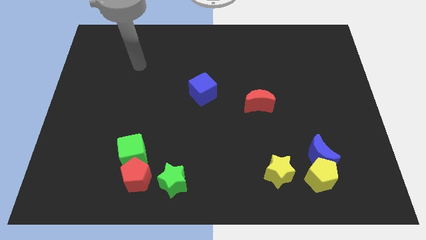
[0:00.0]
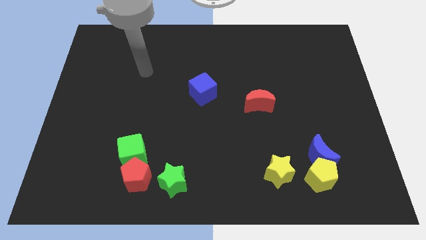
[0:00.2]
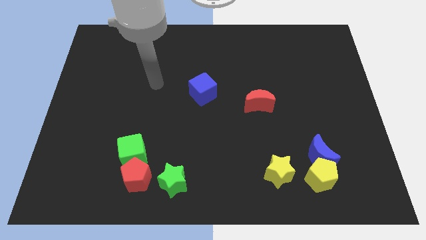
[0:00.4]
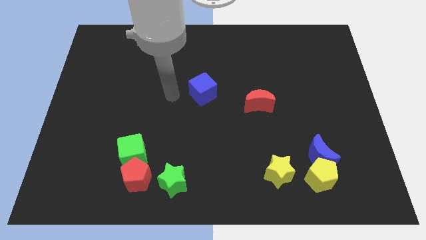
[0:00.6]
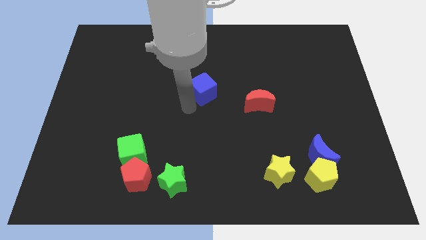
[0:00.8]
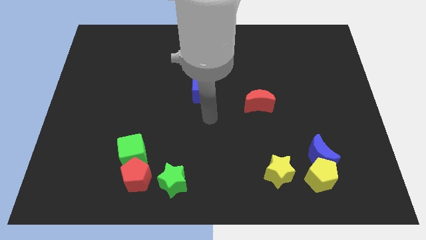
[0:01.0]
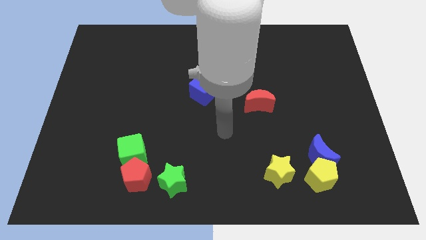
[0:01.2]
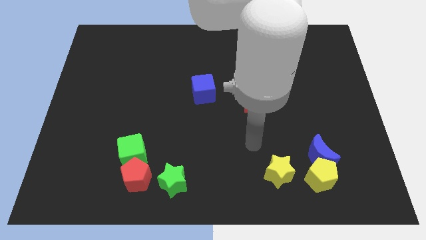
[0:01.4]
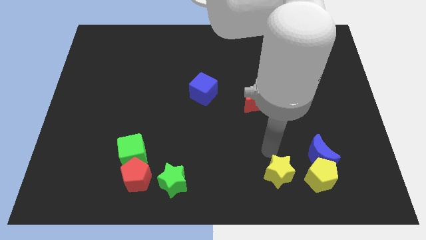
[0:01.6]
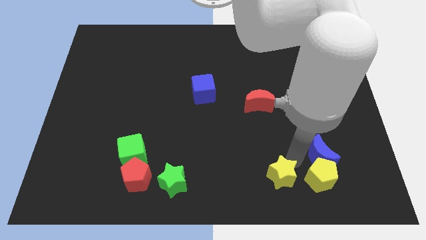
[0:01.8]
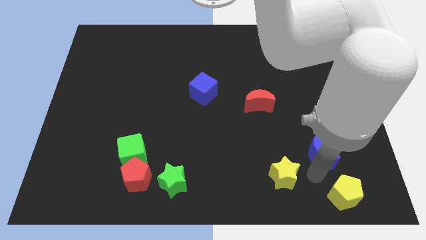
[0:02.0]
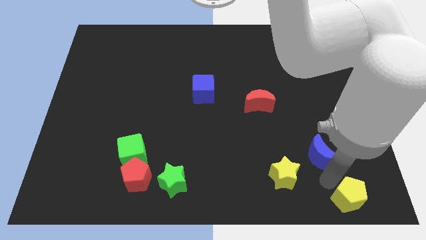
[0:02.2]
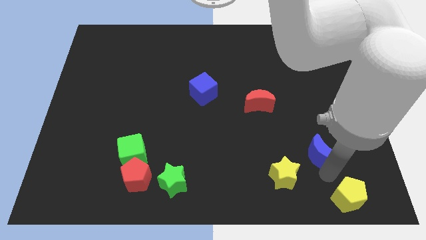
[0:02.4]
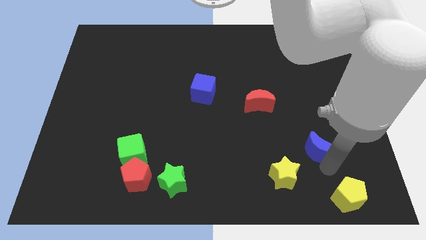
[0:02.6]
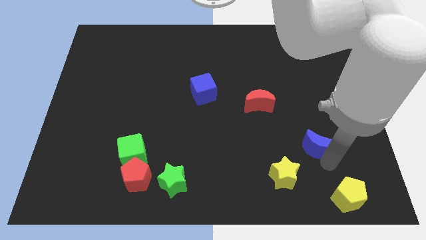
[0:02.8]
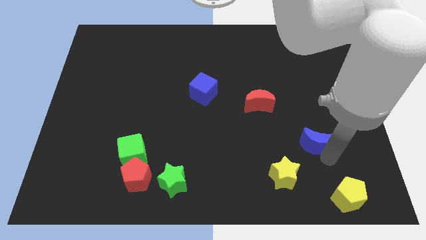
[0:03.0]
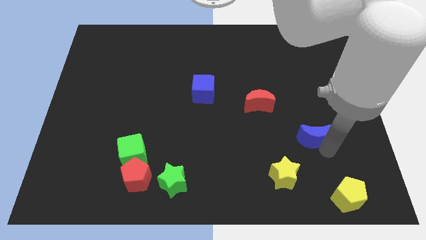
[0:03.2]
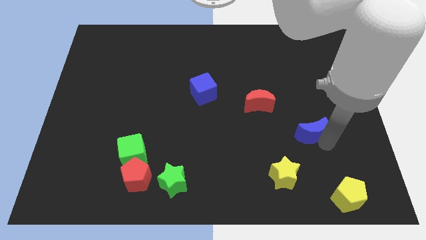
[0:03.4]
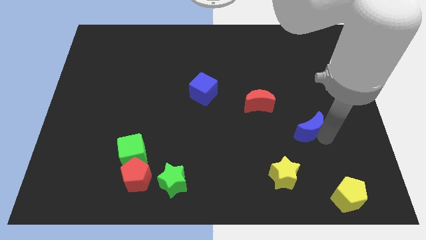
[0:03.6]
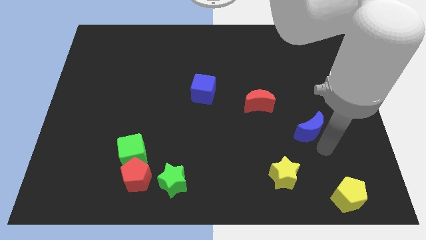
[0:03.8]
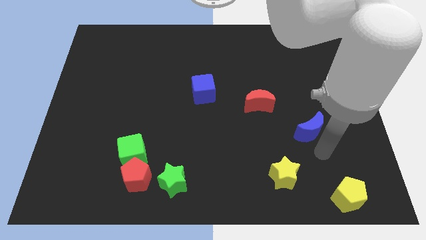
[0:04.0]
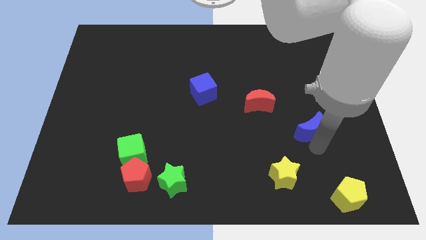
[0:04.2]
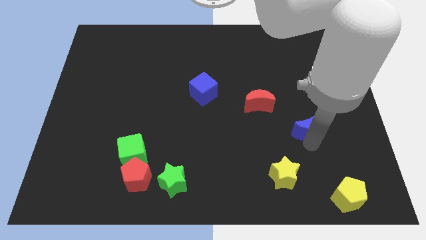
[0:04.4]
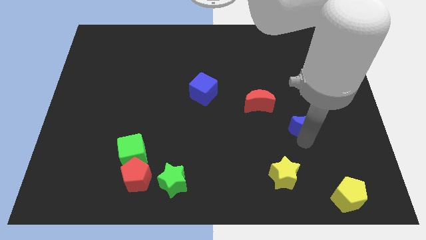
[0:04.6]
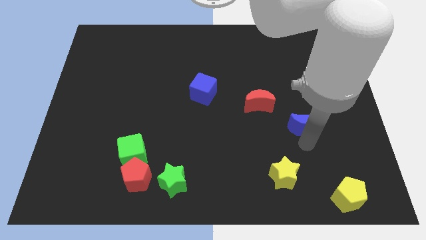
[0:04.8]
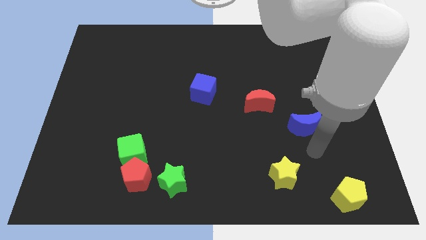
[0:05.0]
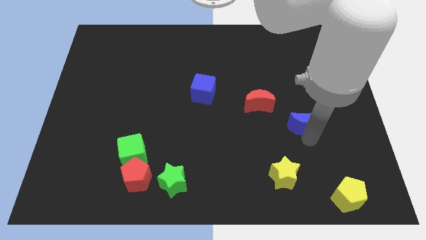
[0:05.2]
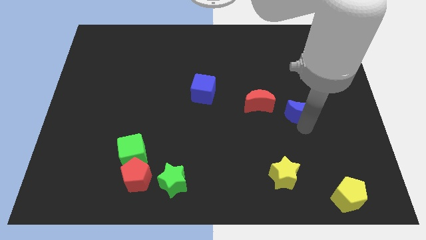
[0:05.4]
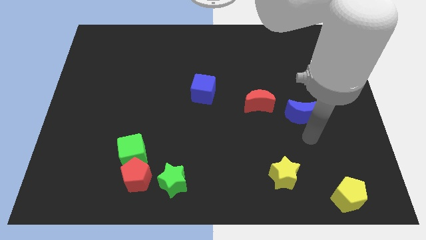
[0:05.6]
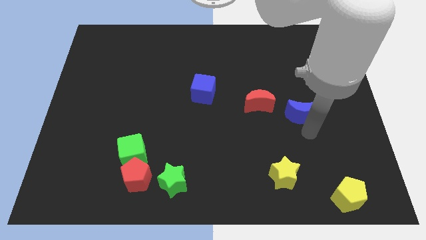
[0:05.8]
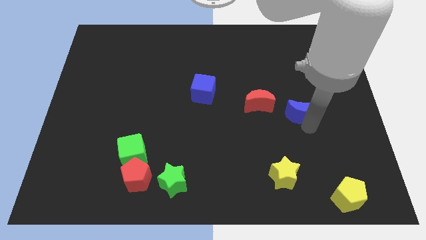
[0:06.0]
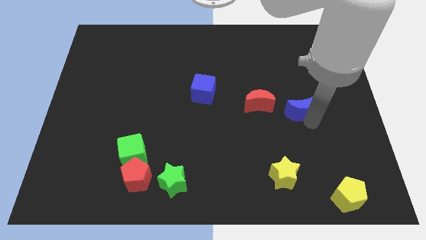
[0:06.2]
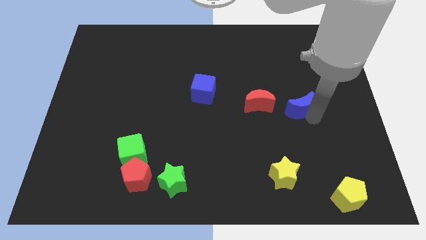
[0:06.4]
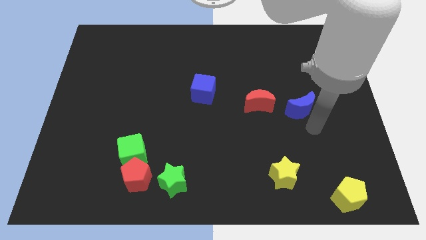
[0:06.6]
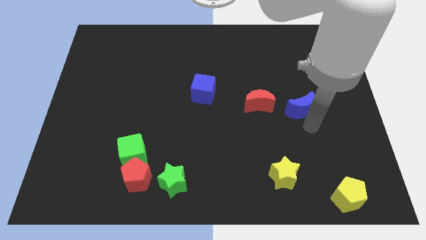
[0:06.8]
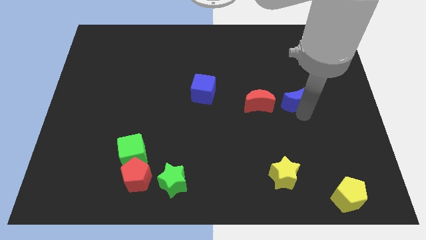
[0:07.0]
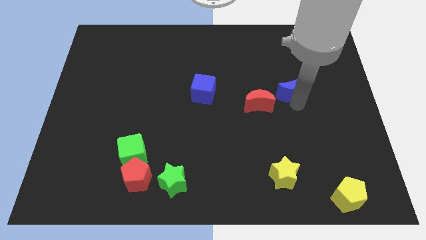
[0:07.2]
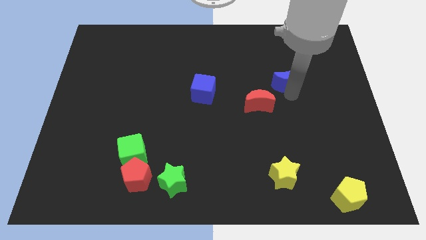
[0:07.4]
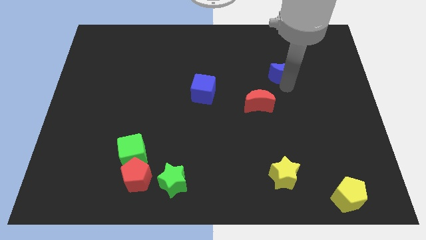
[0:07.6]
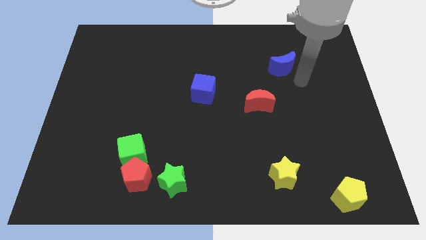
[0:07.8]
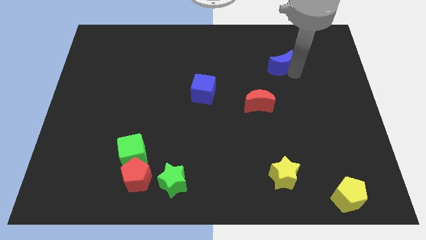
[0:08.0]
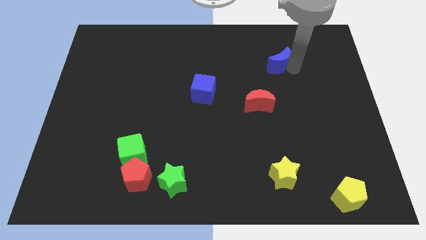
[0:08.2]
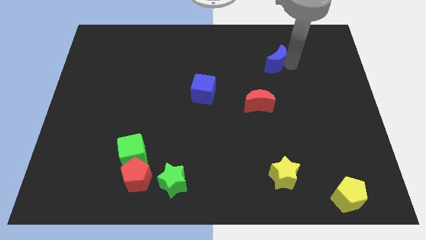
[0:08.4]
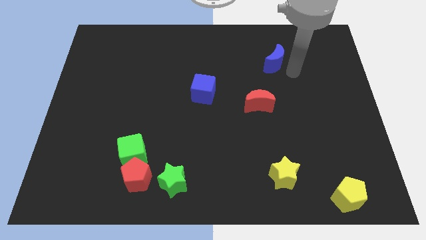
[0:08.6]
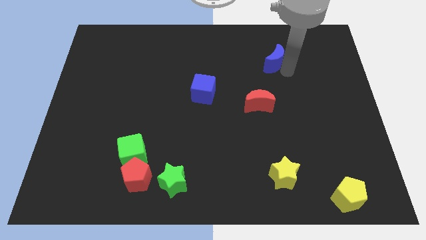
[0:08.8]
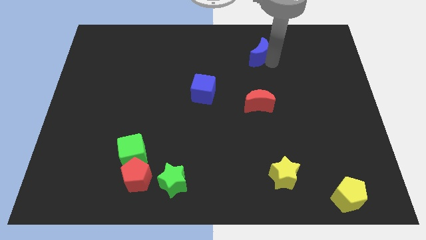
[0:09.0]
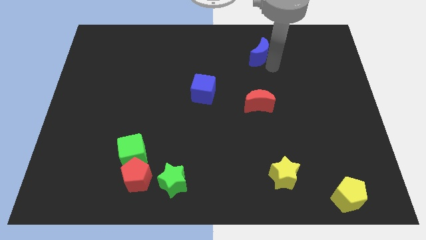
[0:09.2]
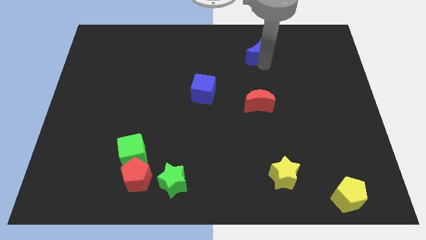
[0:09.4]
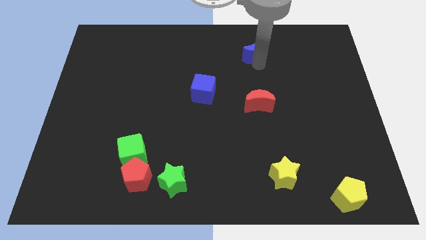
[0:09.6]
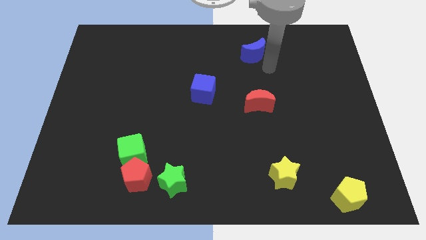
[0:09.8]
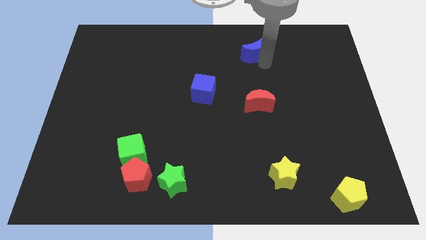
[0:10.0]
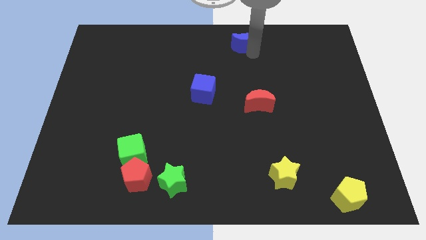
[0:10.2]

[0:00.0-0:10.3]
slide the blue moon to the towards your base
